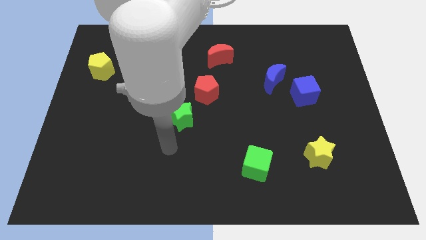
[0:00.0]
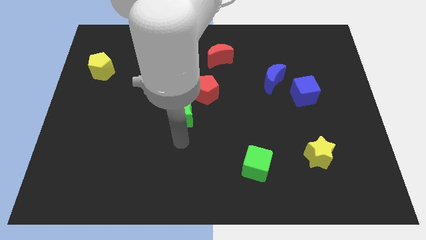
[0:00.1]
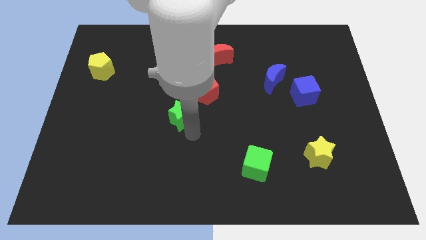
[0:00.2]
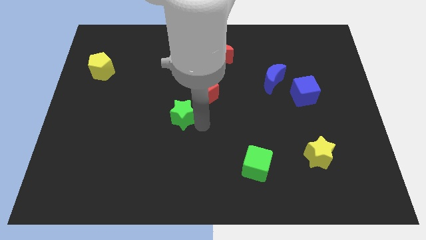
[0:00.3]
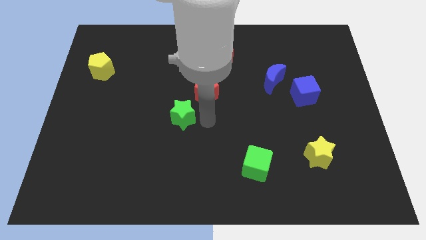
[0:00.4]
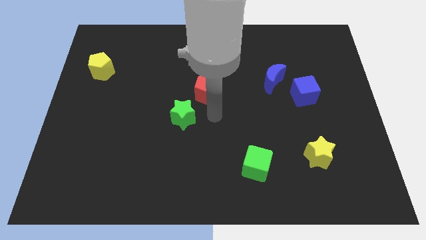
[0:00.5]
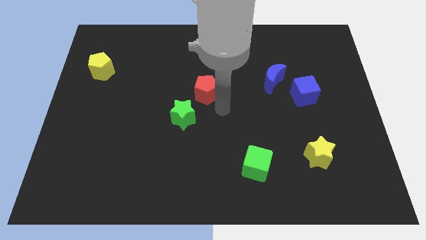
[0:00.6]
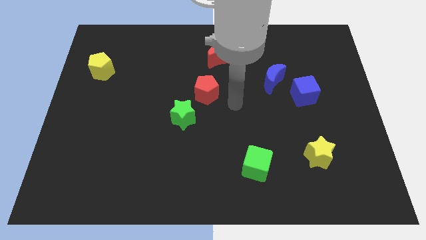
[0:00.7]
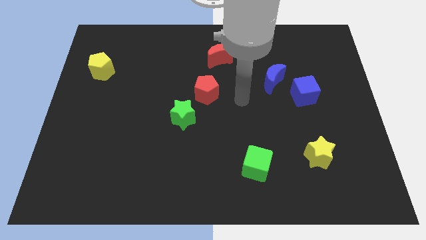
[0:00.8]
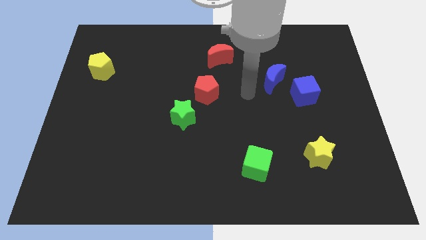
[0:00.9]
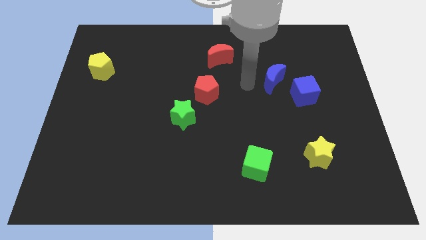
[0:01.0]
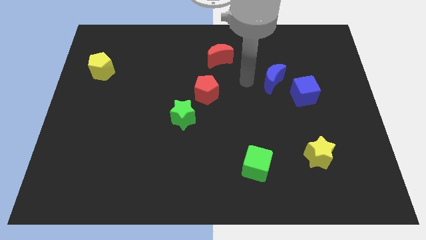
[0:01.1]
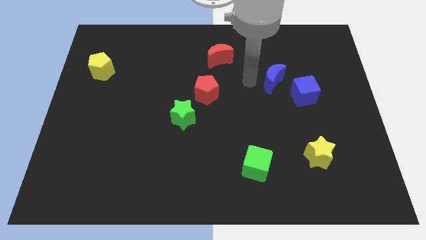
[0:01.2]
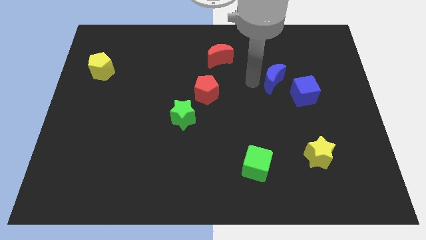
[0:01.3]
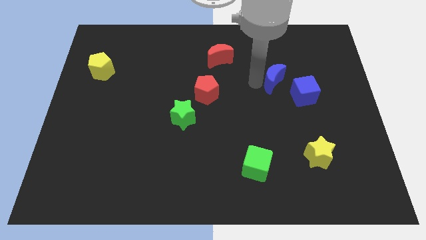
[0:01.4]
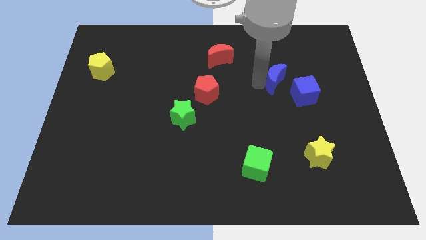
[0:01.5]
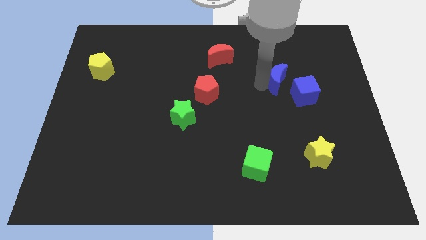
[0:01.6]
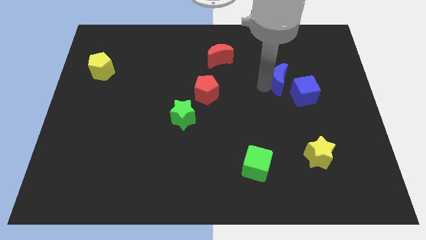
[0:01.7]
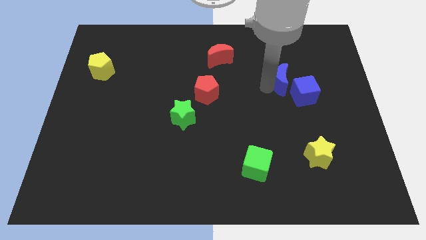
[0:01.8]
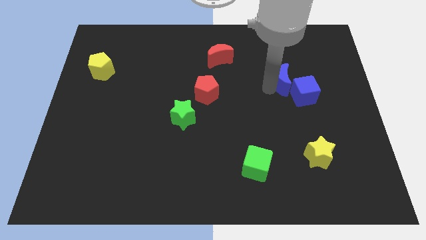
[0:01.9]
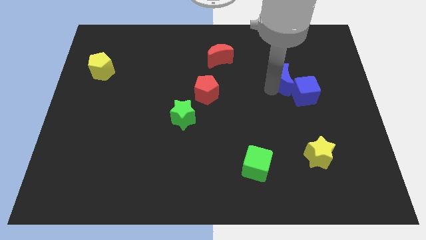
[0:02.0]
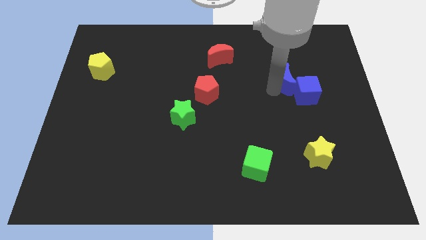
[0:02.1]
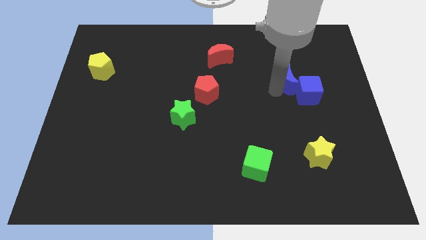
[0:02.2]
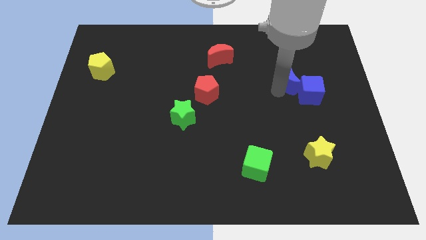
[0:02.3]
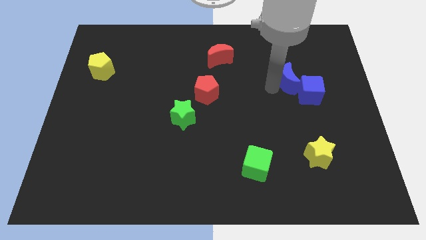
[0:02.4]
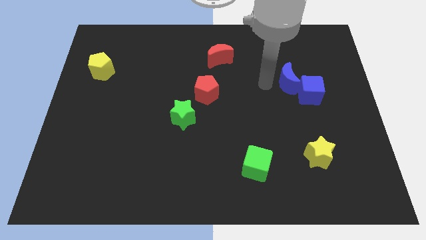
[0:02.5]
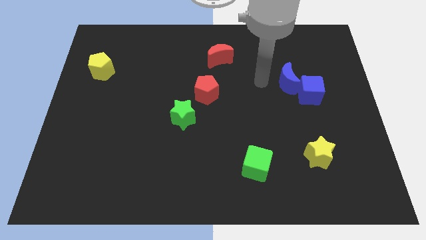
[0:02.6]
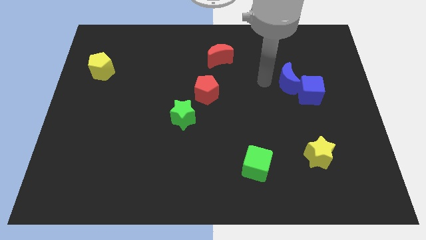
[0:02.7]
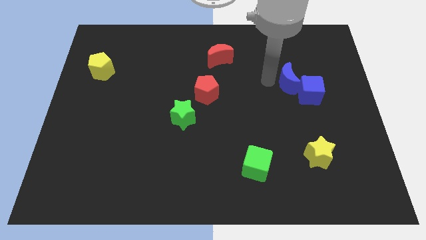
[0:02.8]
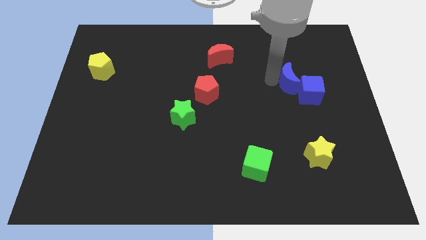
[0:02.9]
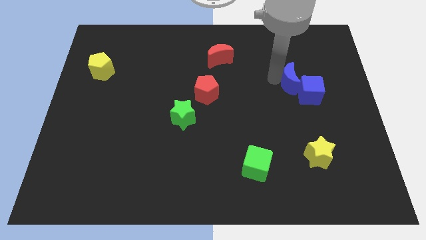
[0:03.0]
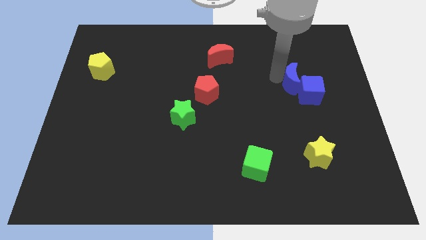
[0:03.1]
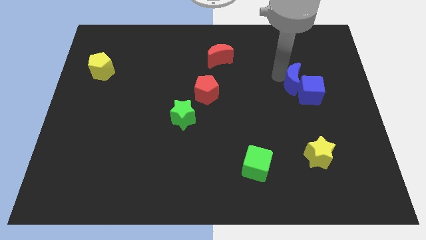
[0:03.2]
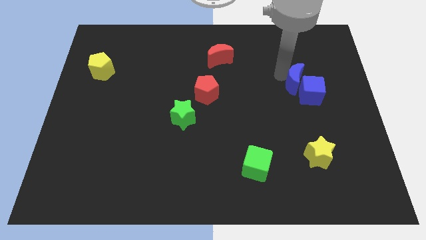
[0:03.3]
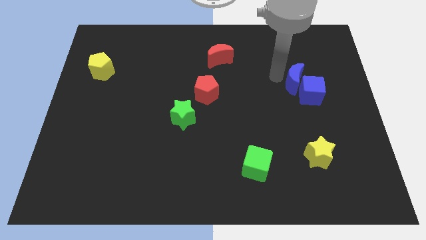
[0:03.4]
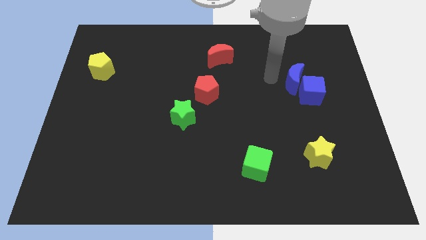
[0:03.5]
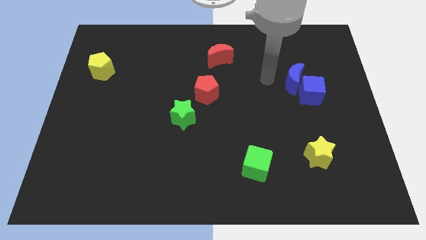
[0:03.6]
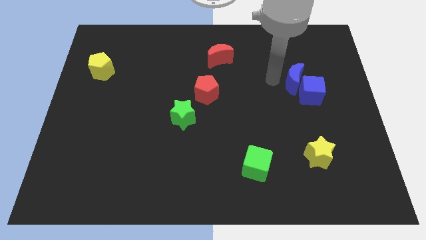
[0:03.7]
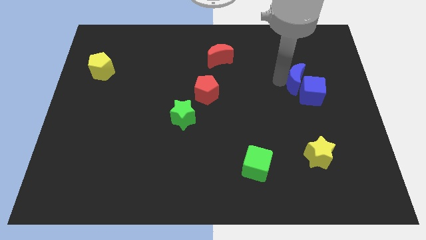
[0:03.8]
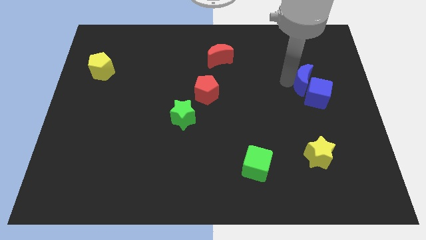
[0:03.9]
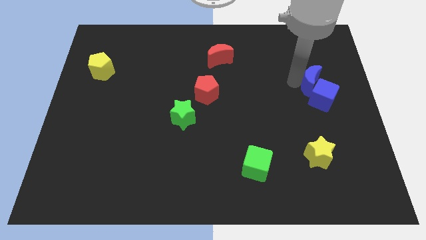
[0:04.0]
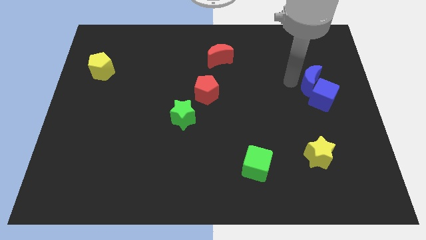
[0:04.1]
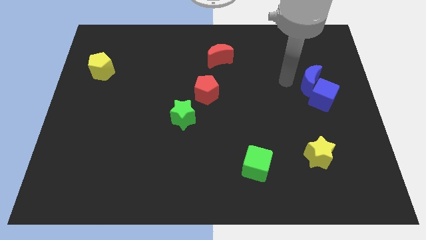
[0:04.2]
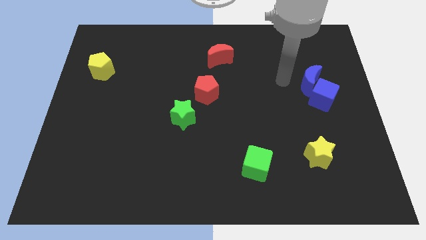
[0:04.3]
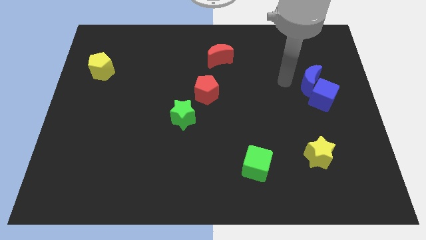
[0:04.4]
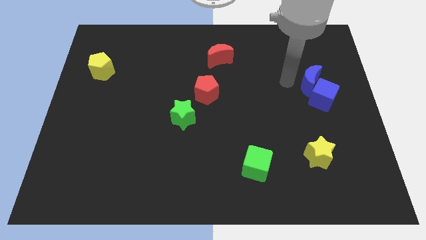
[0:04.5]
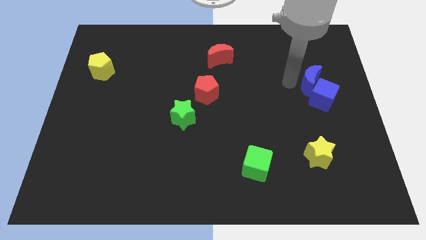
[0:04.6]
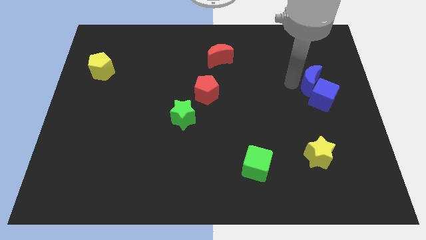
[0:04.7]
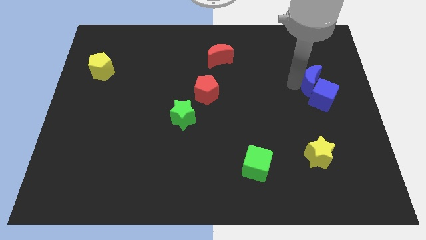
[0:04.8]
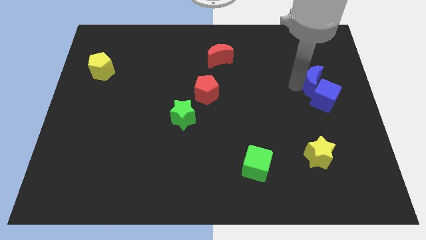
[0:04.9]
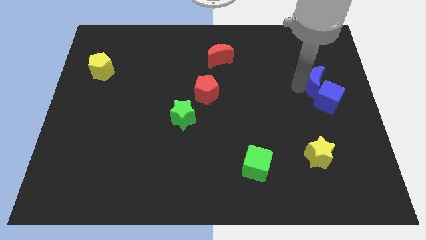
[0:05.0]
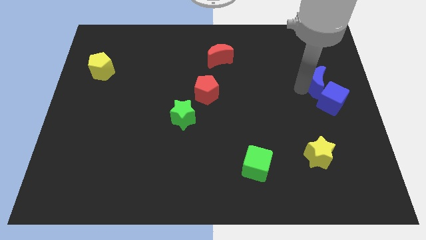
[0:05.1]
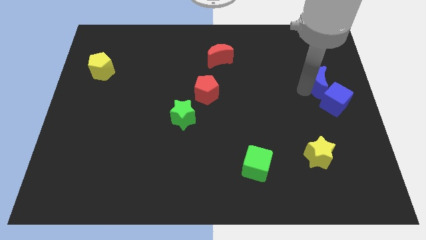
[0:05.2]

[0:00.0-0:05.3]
slide the blue moon to the right side of the board

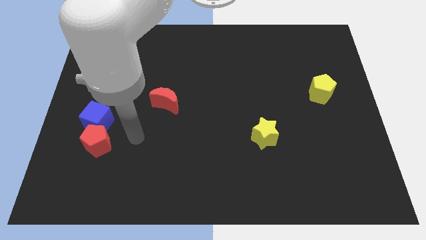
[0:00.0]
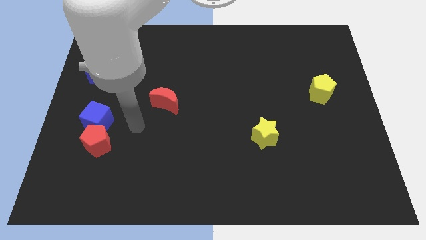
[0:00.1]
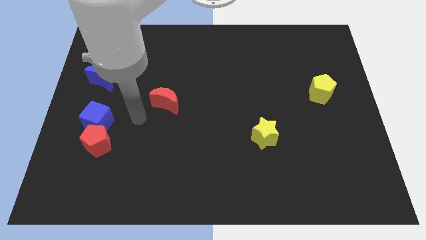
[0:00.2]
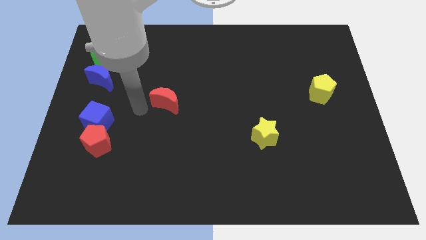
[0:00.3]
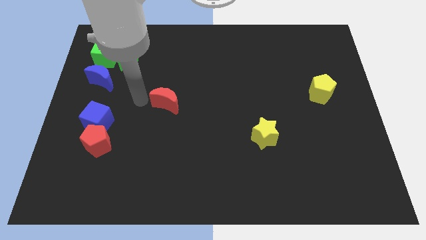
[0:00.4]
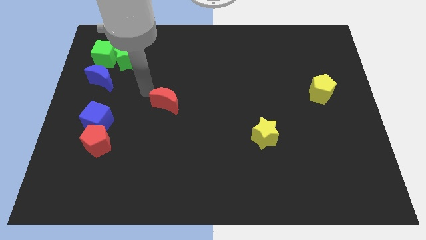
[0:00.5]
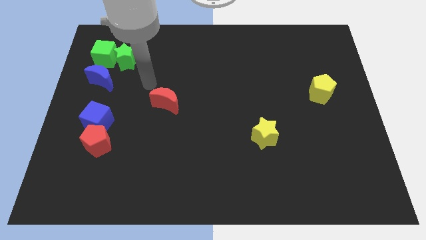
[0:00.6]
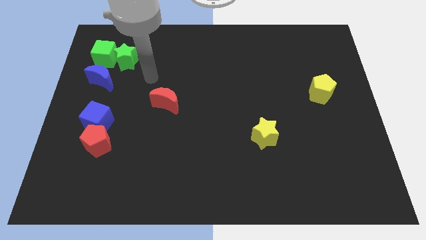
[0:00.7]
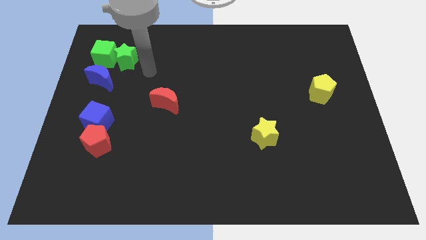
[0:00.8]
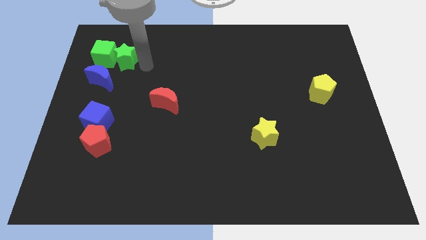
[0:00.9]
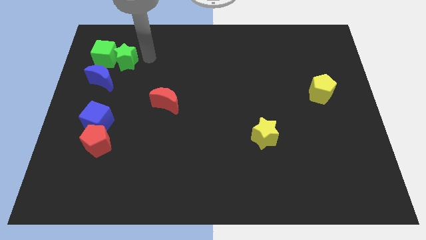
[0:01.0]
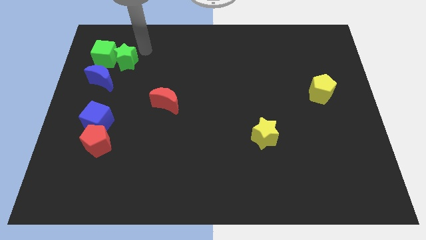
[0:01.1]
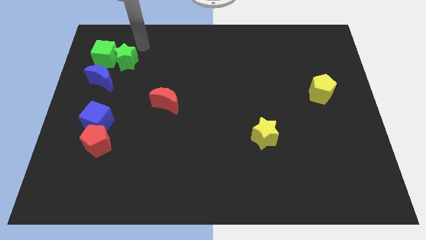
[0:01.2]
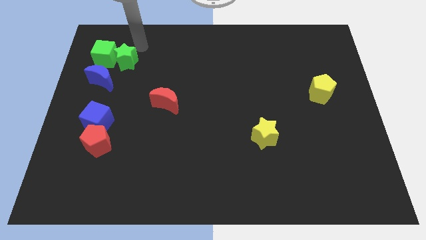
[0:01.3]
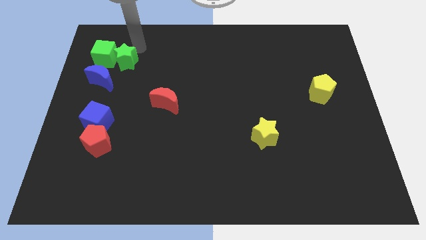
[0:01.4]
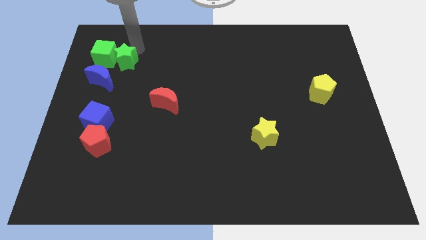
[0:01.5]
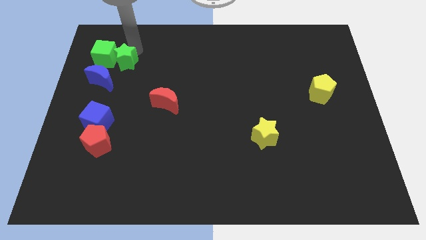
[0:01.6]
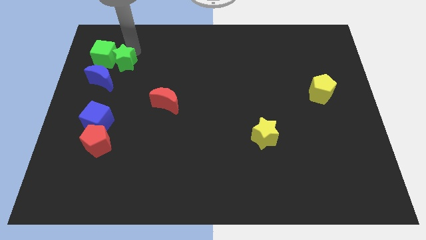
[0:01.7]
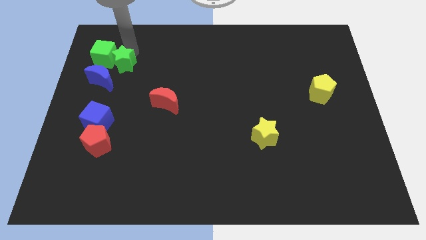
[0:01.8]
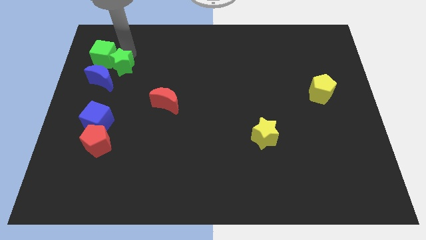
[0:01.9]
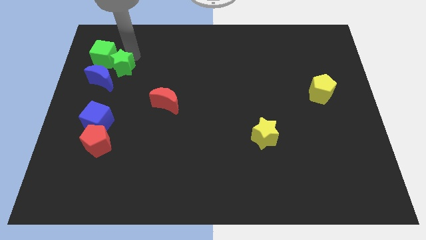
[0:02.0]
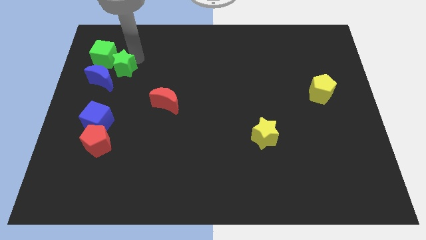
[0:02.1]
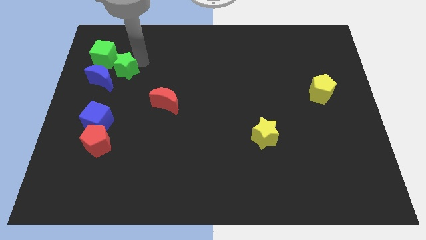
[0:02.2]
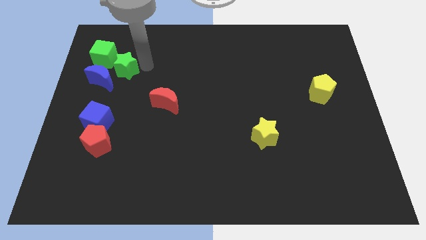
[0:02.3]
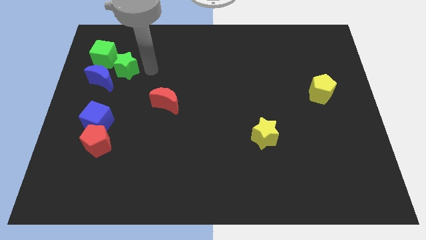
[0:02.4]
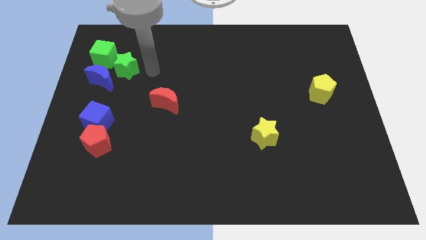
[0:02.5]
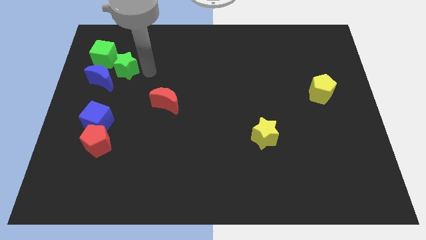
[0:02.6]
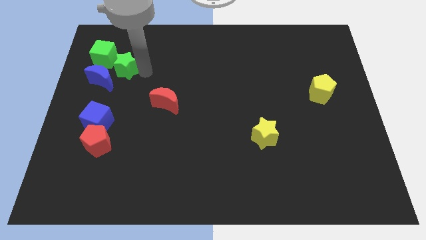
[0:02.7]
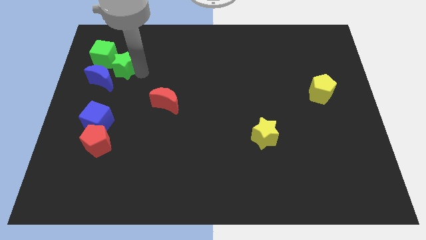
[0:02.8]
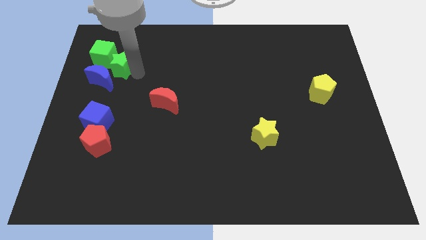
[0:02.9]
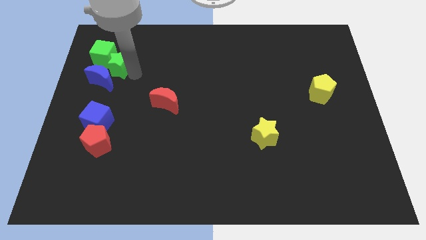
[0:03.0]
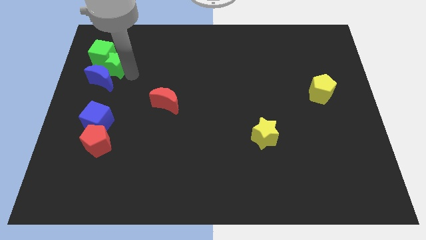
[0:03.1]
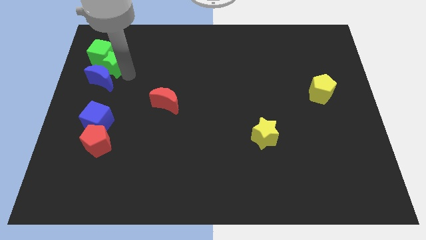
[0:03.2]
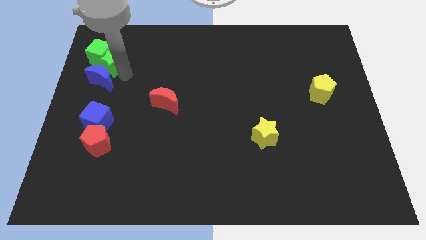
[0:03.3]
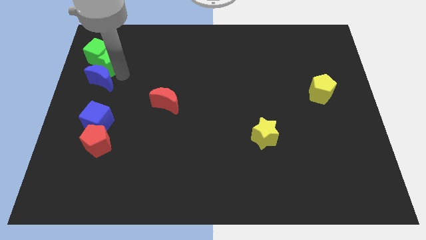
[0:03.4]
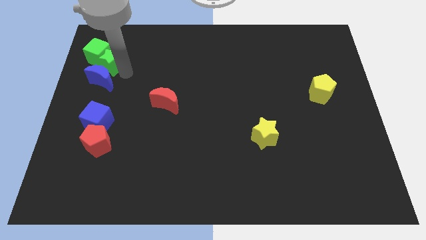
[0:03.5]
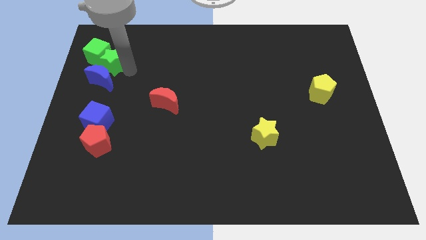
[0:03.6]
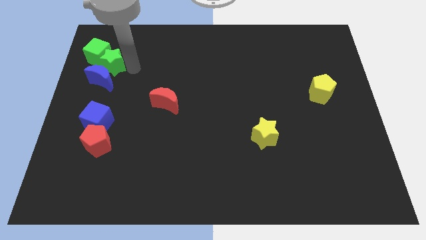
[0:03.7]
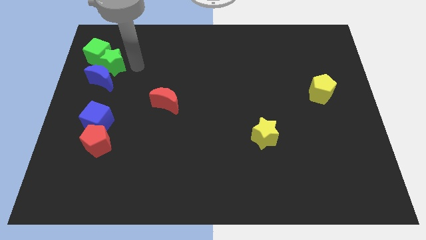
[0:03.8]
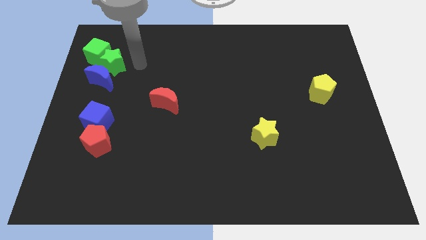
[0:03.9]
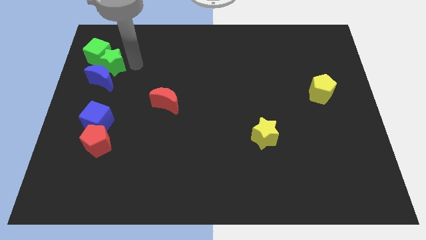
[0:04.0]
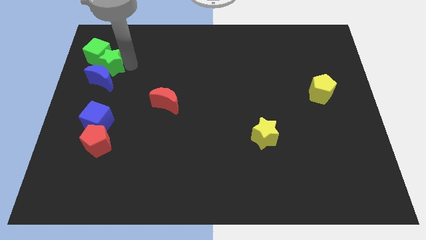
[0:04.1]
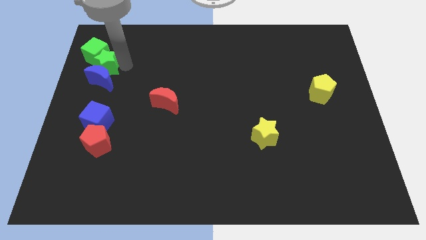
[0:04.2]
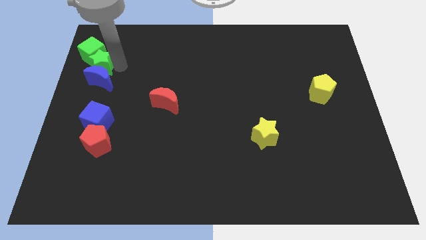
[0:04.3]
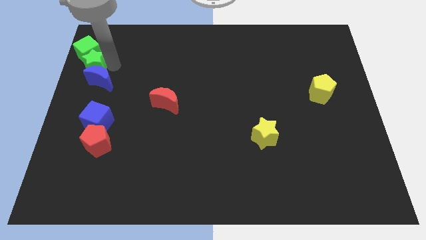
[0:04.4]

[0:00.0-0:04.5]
move the green star to the left side of the board
